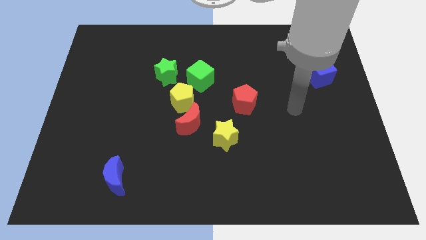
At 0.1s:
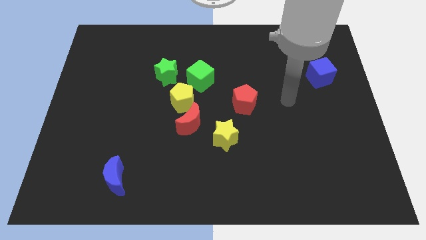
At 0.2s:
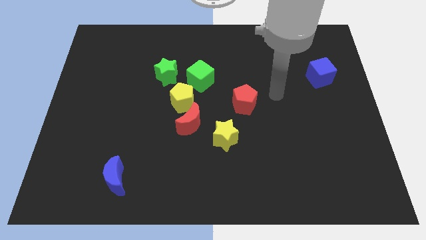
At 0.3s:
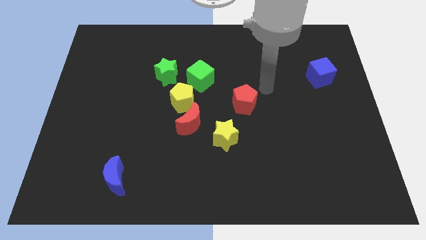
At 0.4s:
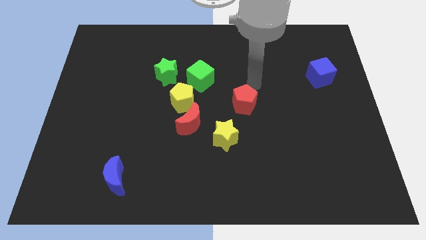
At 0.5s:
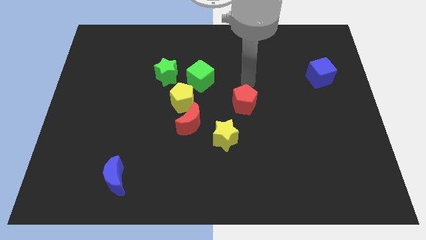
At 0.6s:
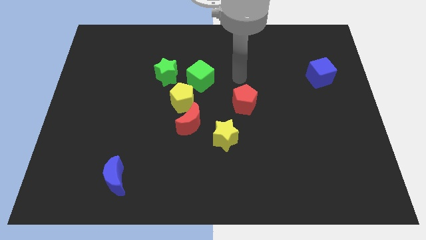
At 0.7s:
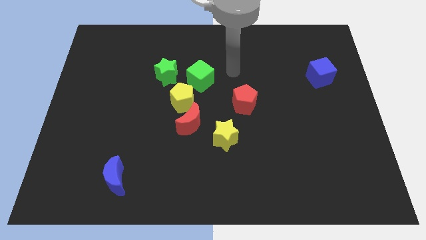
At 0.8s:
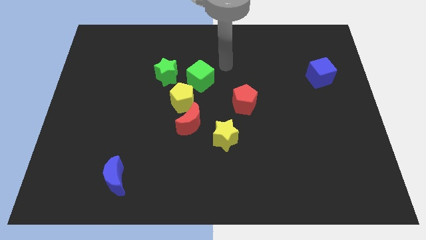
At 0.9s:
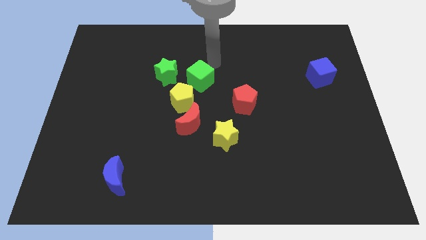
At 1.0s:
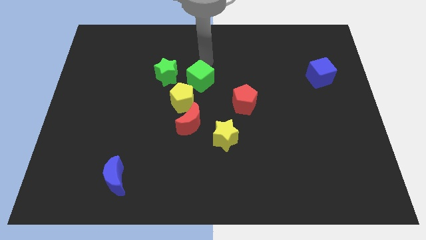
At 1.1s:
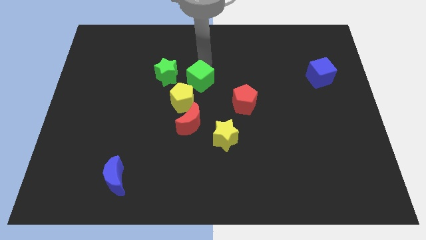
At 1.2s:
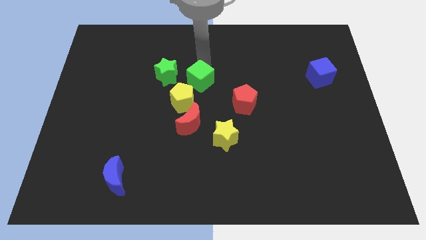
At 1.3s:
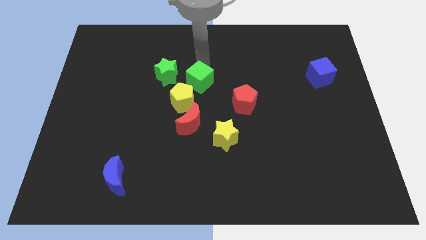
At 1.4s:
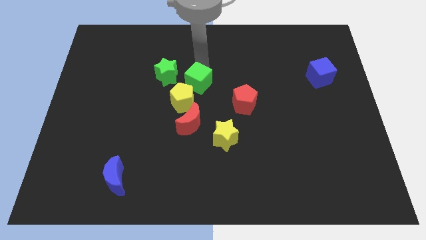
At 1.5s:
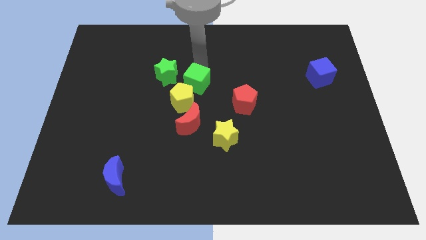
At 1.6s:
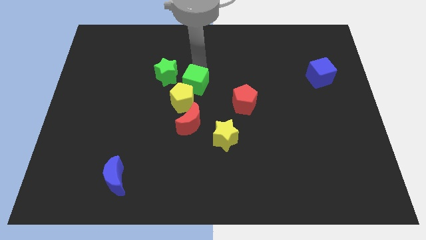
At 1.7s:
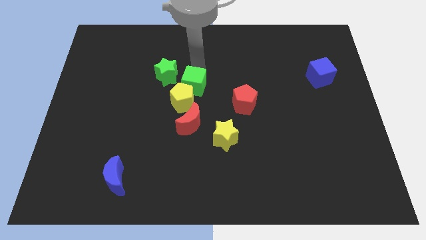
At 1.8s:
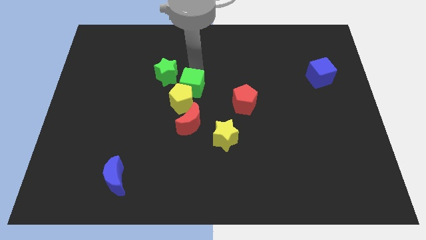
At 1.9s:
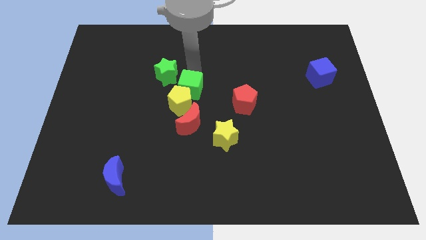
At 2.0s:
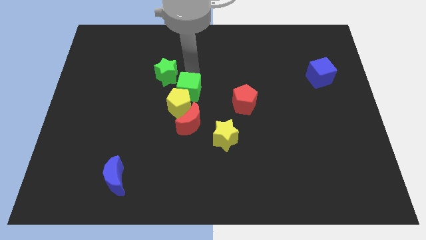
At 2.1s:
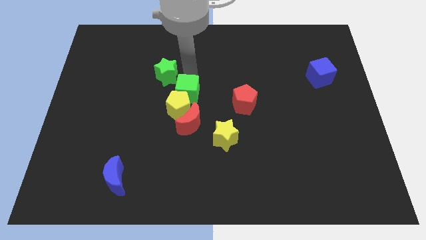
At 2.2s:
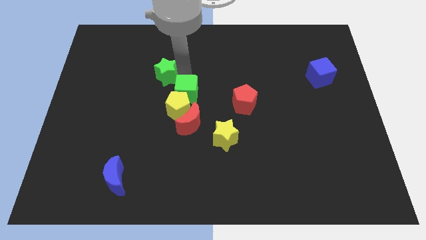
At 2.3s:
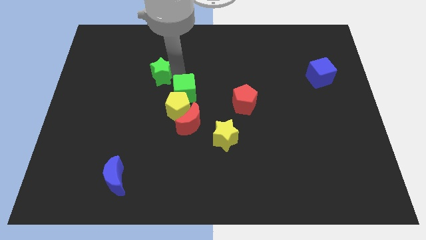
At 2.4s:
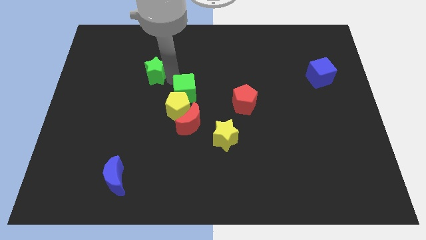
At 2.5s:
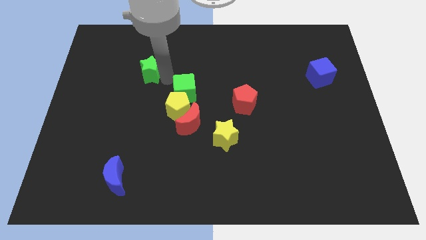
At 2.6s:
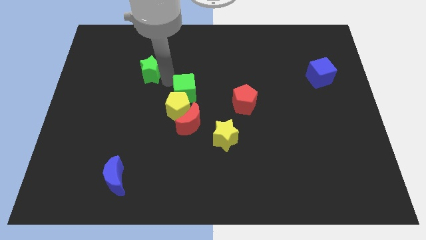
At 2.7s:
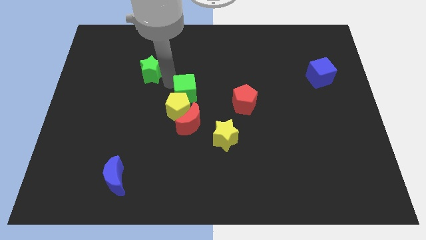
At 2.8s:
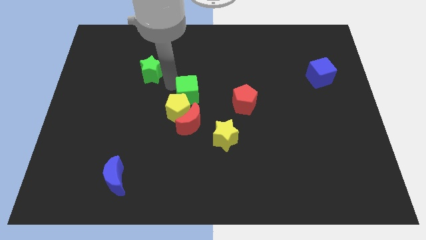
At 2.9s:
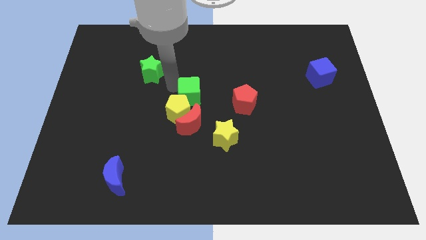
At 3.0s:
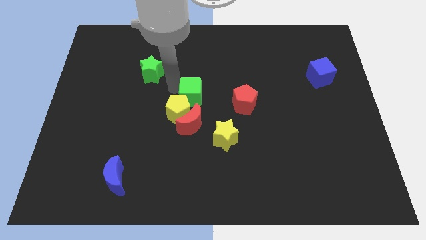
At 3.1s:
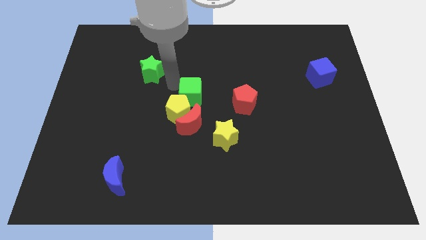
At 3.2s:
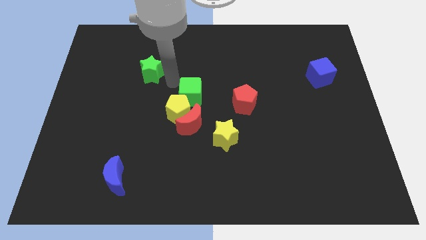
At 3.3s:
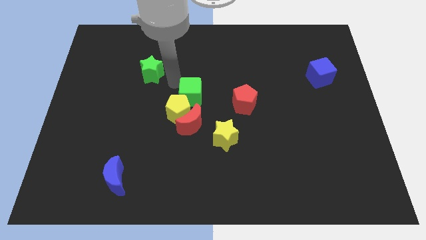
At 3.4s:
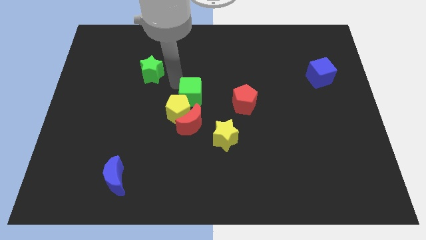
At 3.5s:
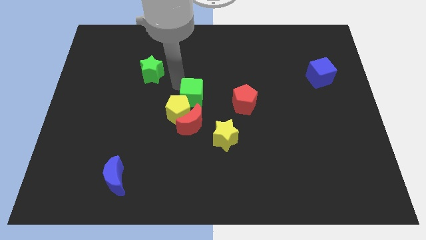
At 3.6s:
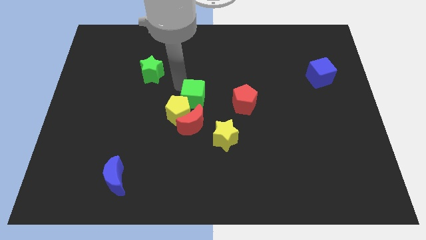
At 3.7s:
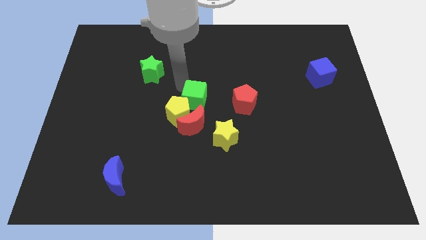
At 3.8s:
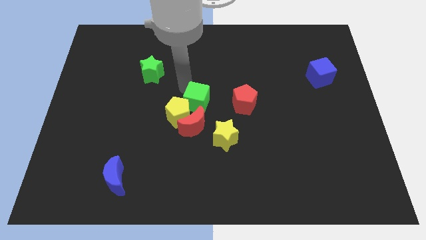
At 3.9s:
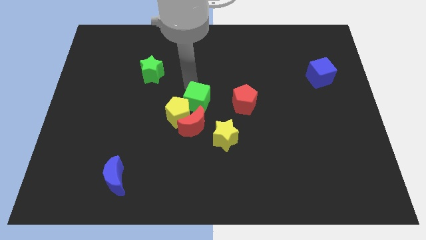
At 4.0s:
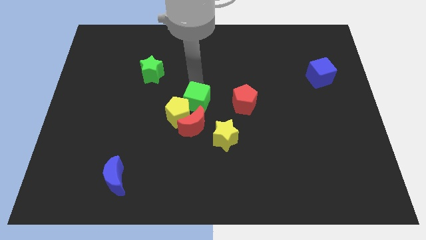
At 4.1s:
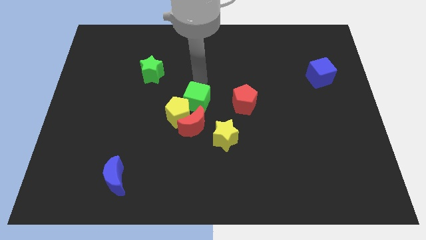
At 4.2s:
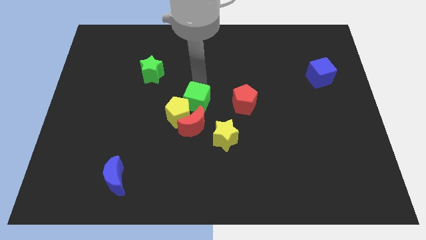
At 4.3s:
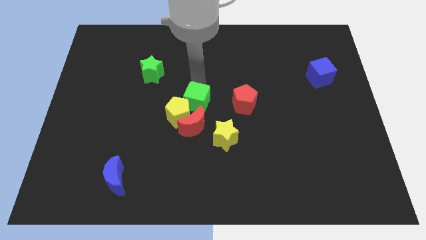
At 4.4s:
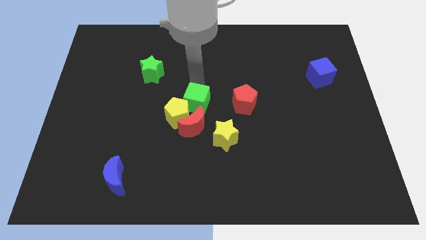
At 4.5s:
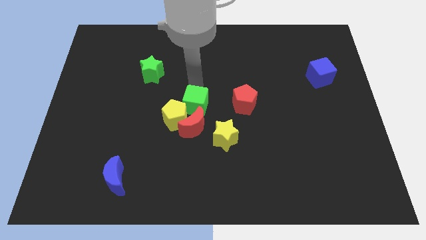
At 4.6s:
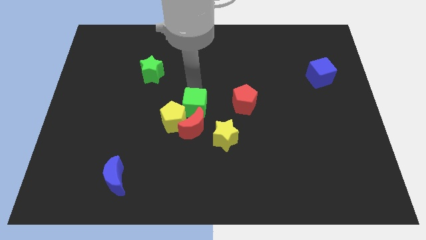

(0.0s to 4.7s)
slide the green cube close to the red moon

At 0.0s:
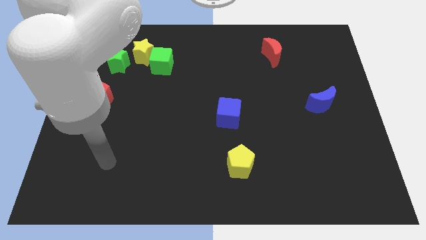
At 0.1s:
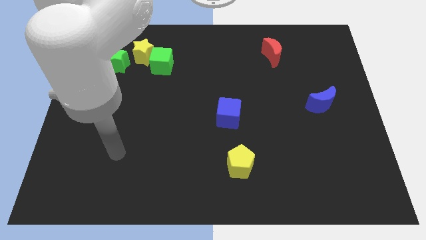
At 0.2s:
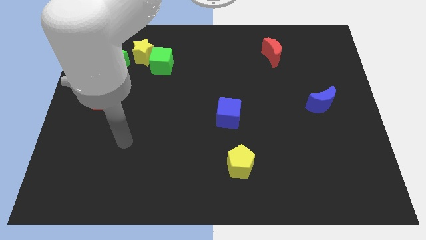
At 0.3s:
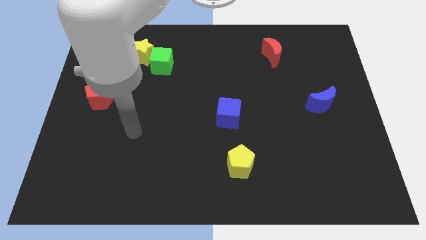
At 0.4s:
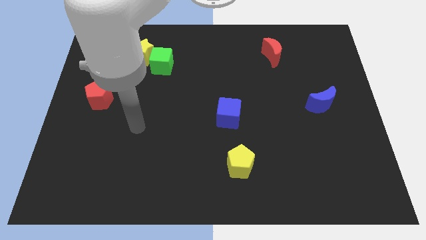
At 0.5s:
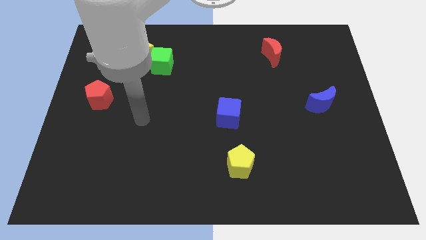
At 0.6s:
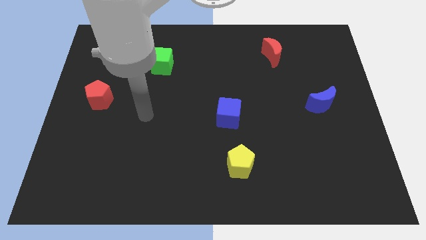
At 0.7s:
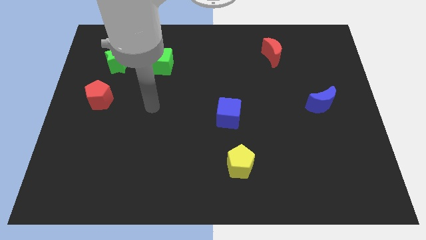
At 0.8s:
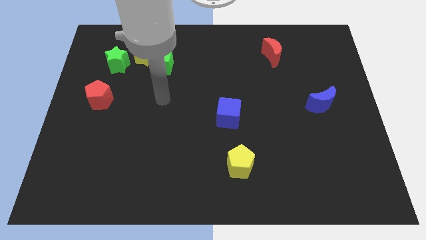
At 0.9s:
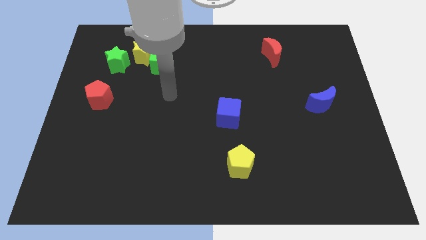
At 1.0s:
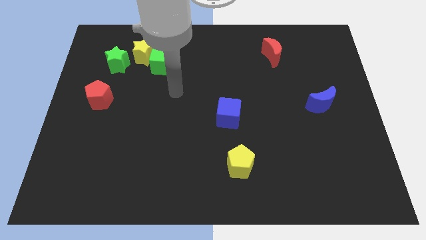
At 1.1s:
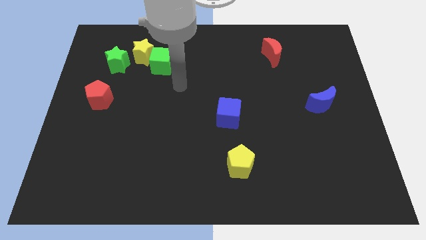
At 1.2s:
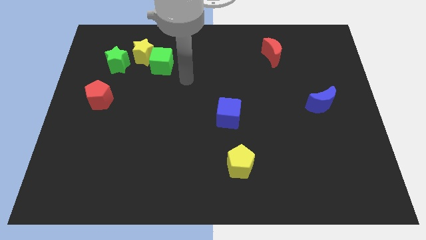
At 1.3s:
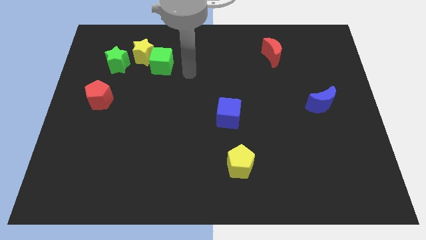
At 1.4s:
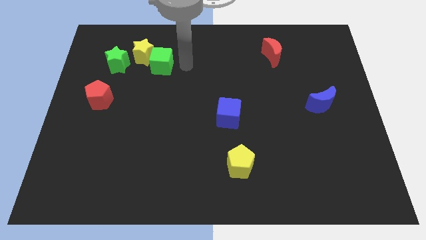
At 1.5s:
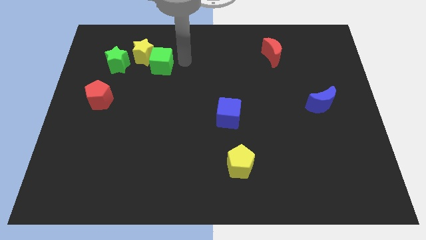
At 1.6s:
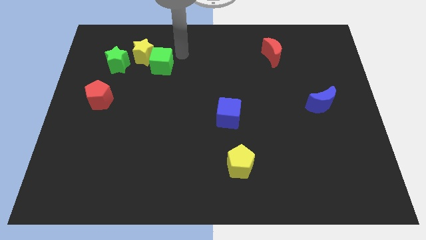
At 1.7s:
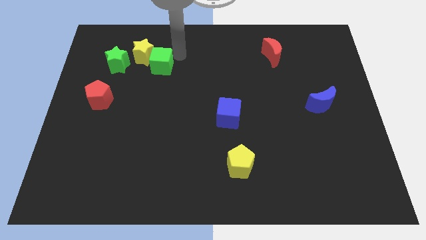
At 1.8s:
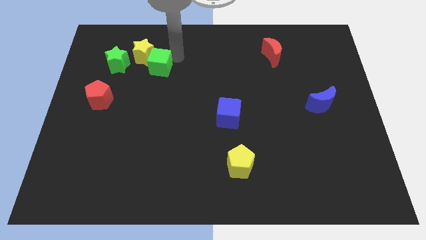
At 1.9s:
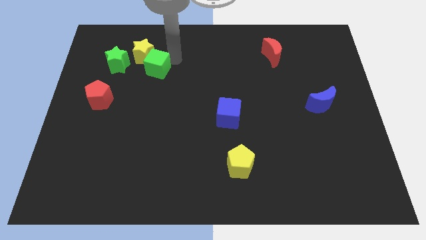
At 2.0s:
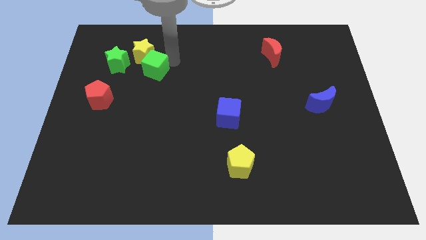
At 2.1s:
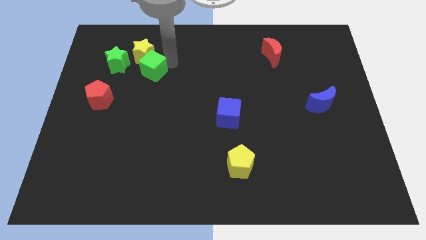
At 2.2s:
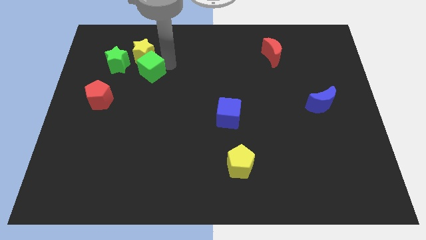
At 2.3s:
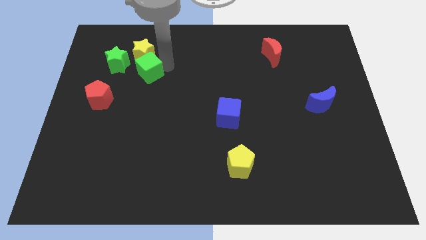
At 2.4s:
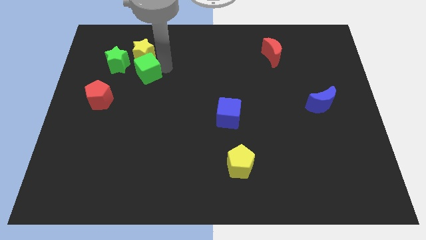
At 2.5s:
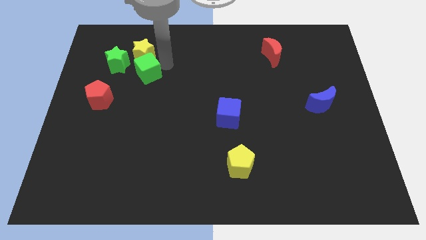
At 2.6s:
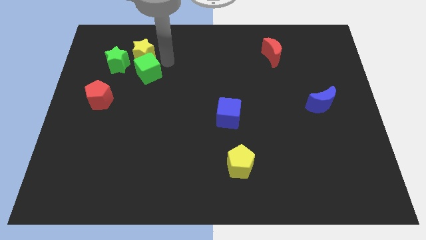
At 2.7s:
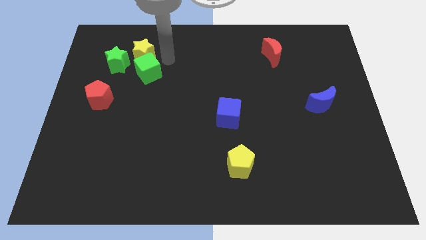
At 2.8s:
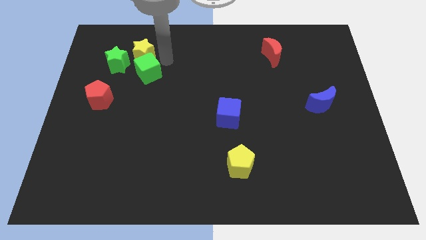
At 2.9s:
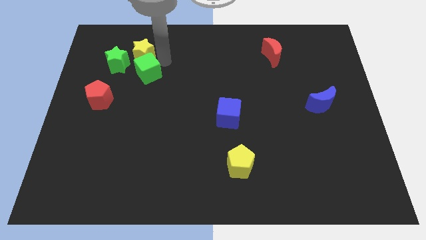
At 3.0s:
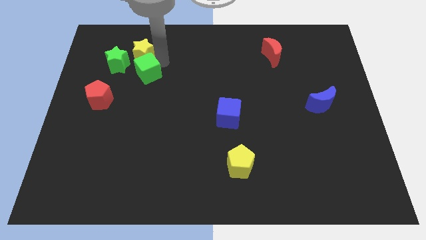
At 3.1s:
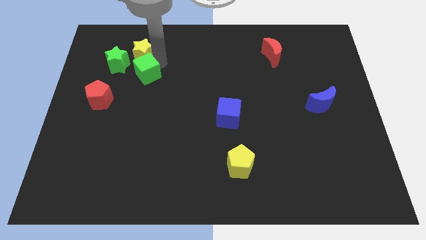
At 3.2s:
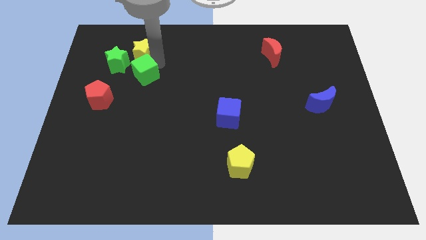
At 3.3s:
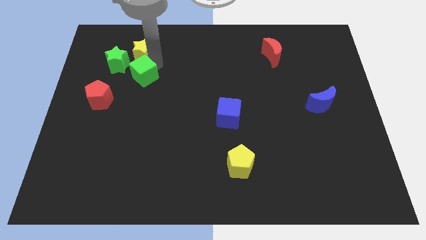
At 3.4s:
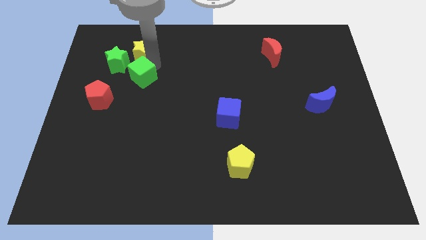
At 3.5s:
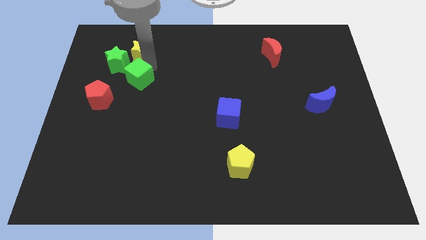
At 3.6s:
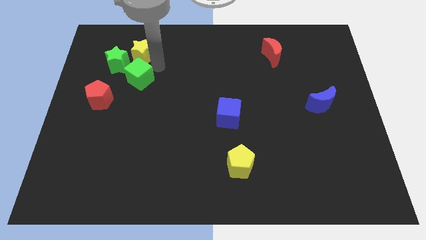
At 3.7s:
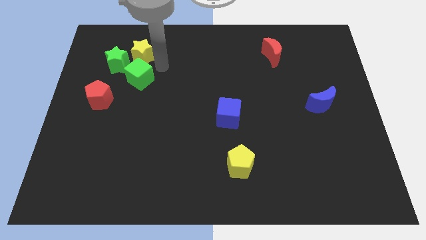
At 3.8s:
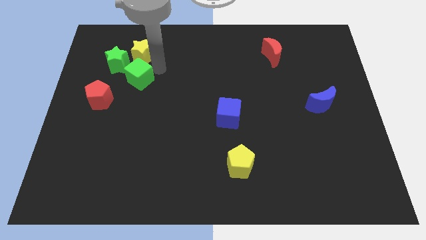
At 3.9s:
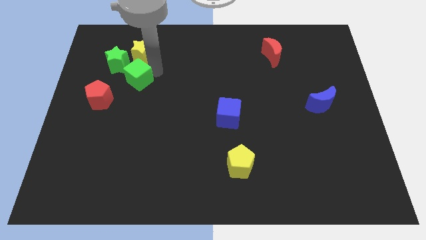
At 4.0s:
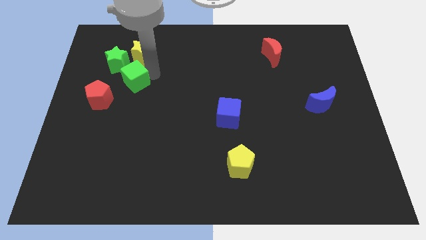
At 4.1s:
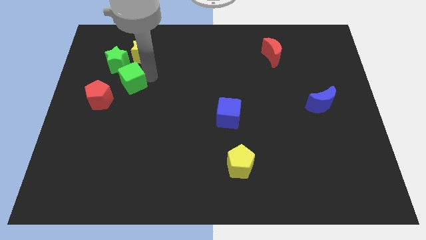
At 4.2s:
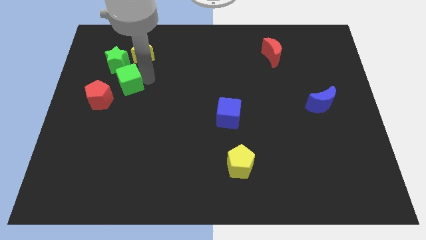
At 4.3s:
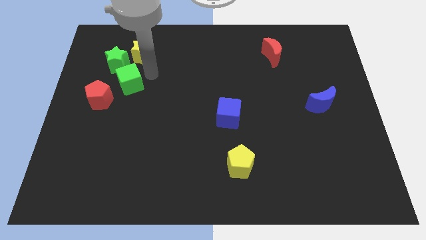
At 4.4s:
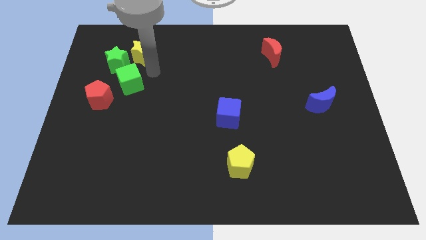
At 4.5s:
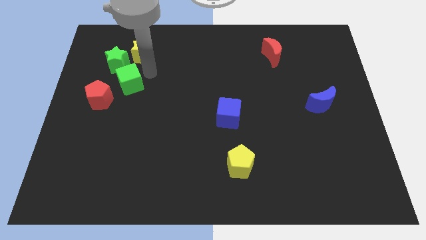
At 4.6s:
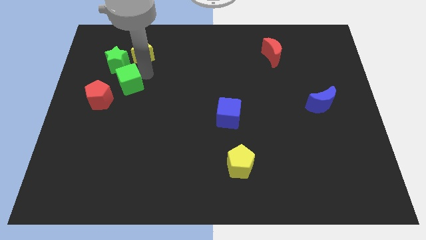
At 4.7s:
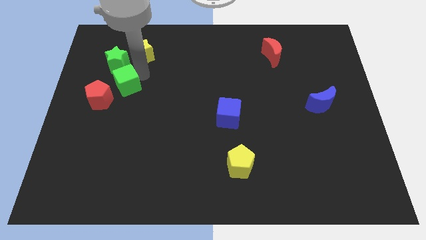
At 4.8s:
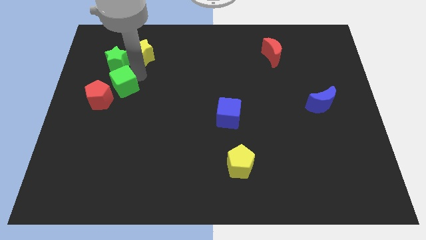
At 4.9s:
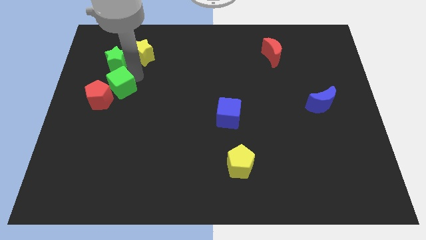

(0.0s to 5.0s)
push the green cube to the red pentagon
